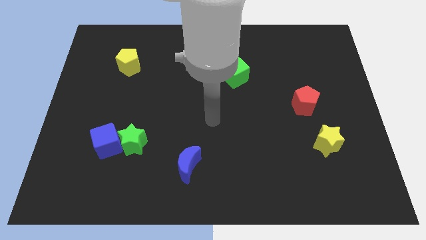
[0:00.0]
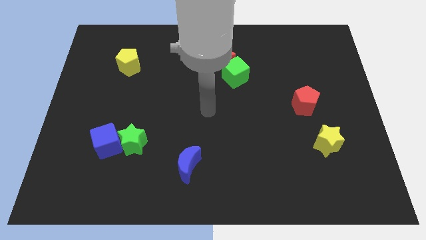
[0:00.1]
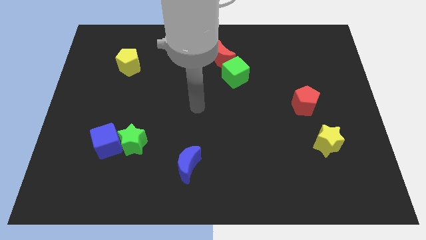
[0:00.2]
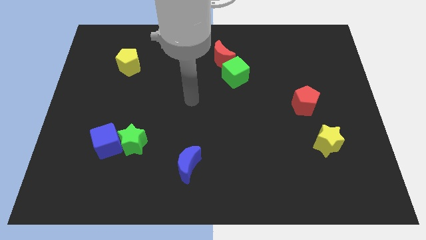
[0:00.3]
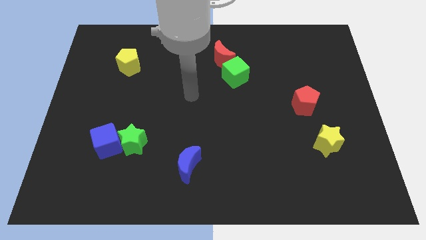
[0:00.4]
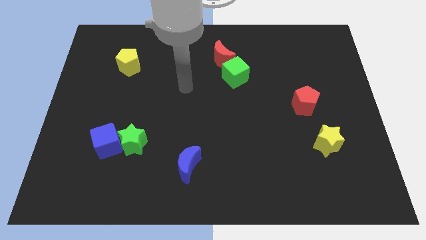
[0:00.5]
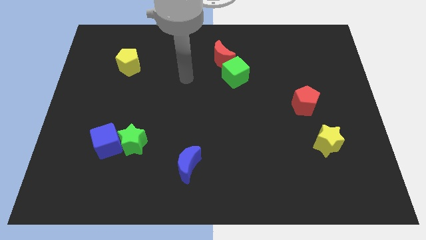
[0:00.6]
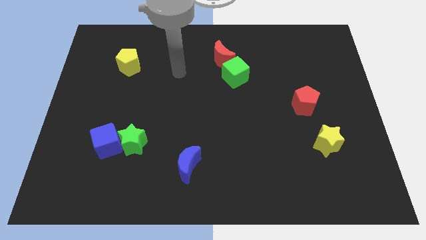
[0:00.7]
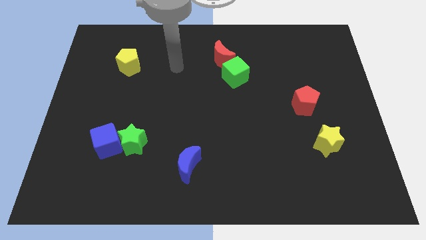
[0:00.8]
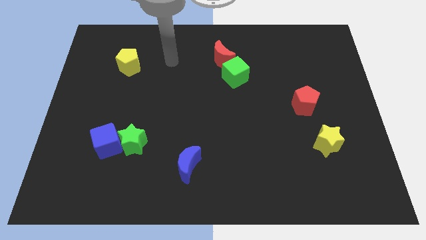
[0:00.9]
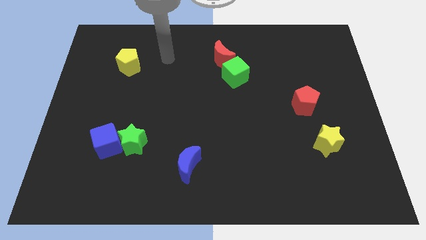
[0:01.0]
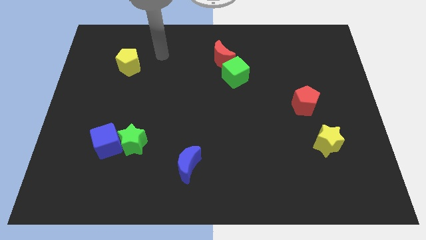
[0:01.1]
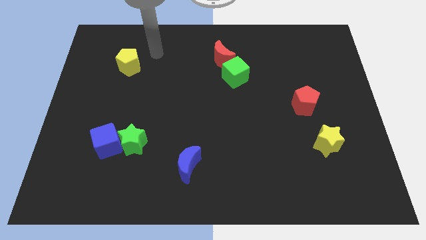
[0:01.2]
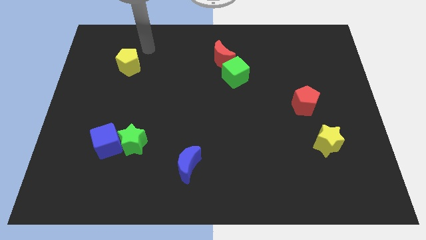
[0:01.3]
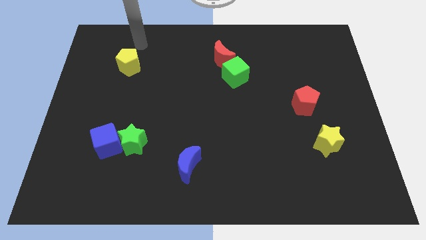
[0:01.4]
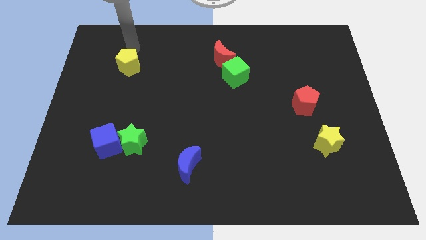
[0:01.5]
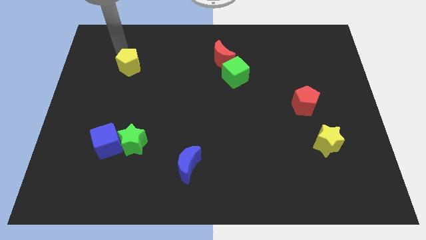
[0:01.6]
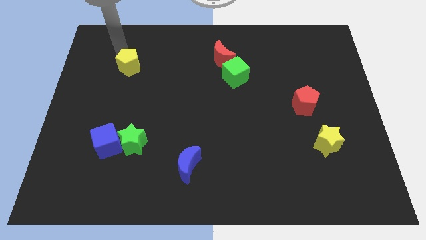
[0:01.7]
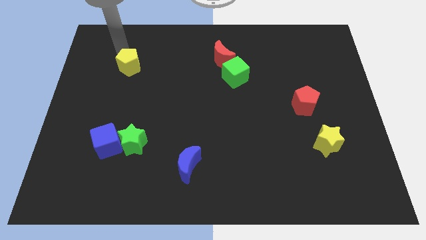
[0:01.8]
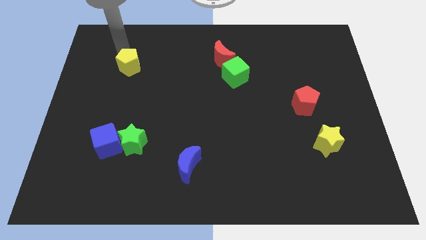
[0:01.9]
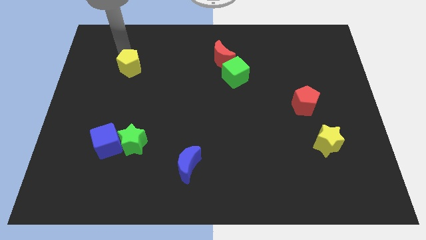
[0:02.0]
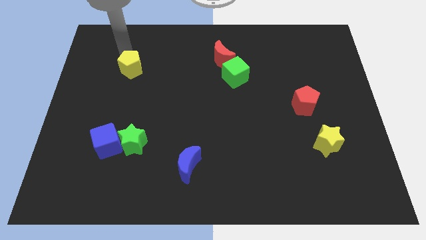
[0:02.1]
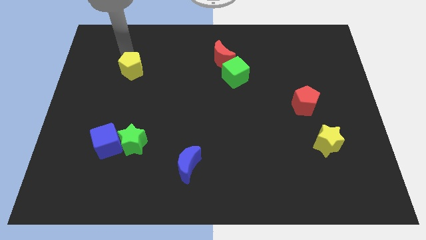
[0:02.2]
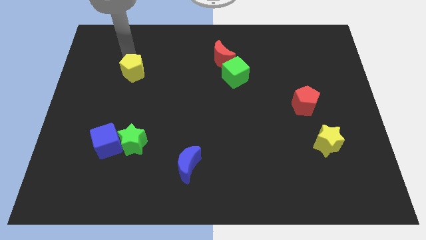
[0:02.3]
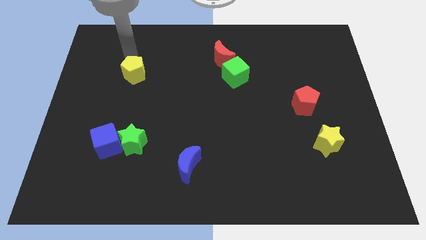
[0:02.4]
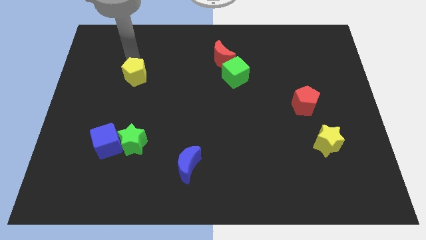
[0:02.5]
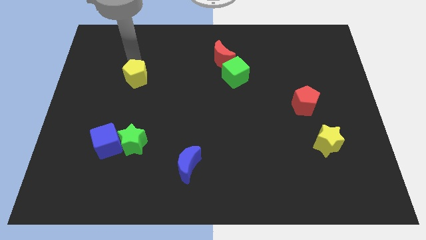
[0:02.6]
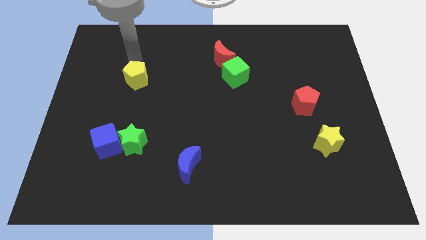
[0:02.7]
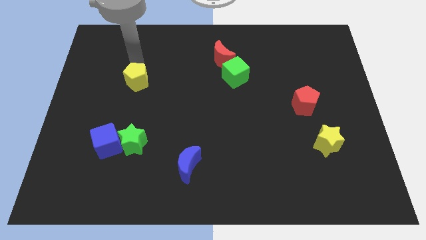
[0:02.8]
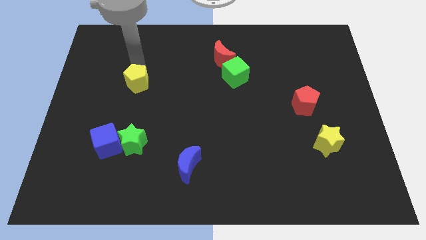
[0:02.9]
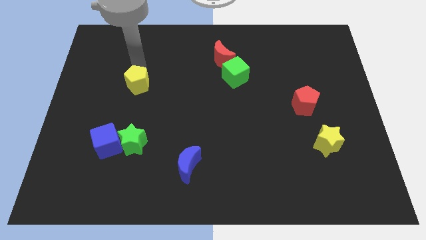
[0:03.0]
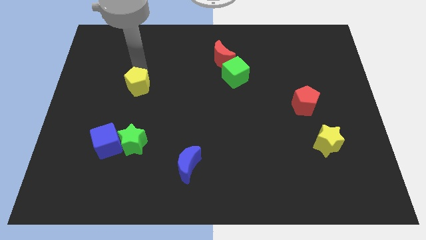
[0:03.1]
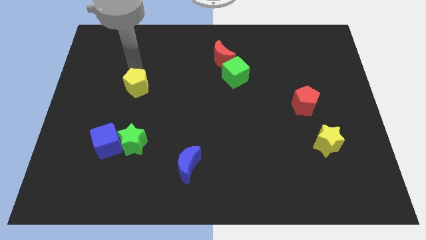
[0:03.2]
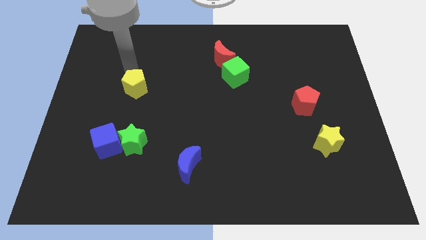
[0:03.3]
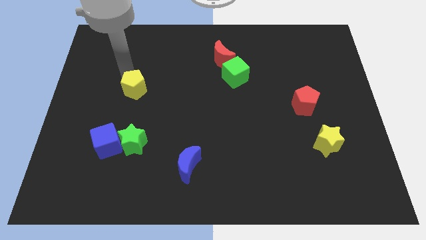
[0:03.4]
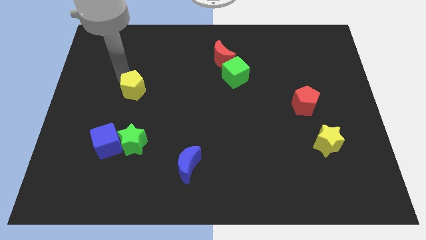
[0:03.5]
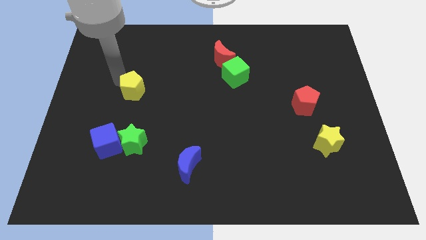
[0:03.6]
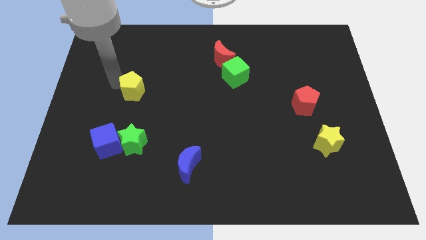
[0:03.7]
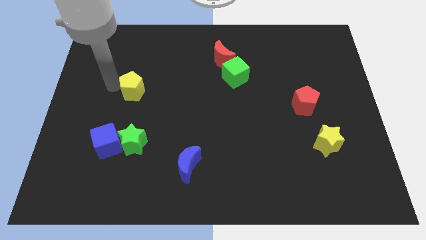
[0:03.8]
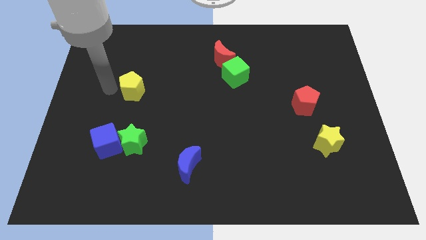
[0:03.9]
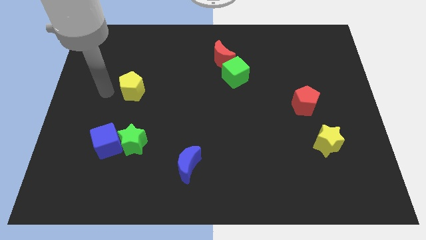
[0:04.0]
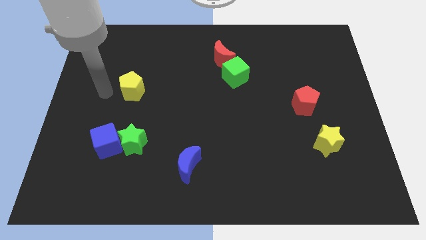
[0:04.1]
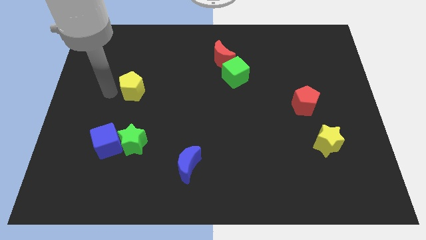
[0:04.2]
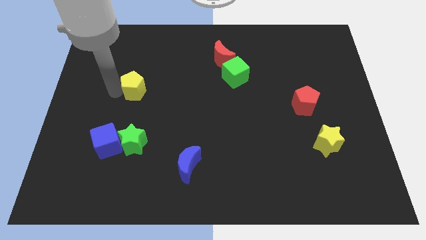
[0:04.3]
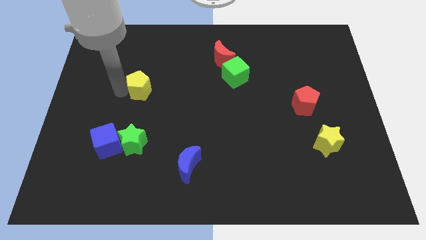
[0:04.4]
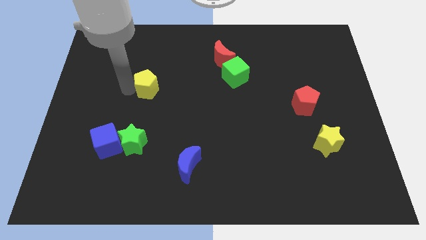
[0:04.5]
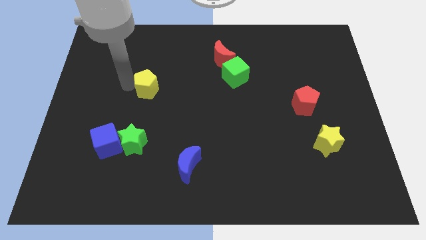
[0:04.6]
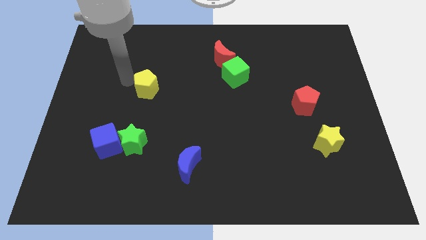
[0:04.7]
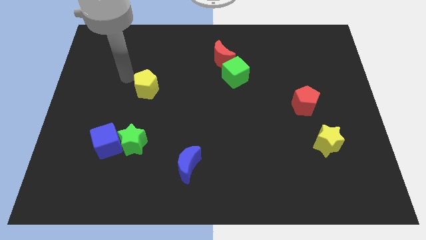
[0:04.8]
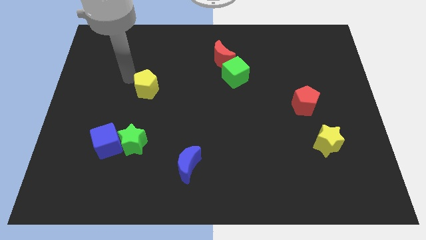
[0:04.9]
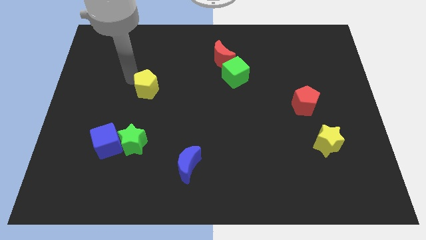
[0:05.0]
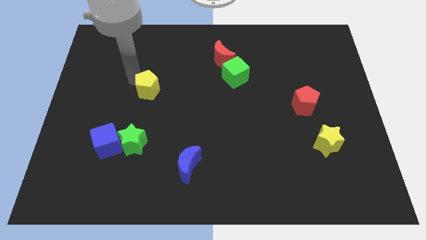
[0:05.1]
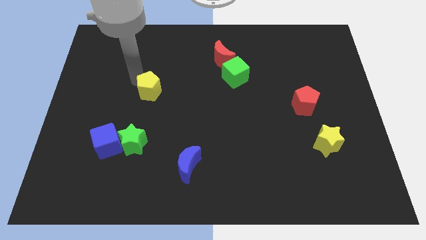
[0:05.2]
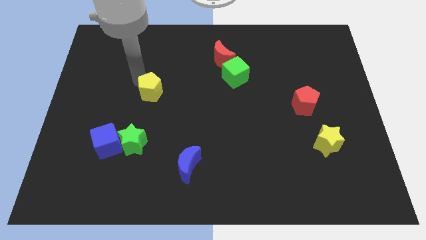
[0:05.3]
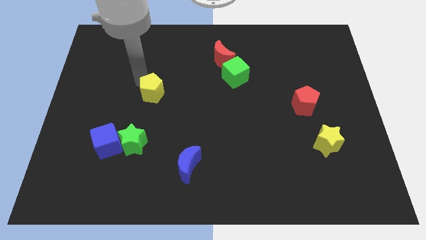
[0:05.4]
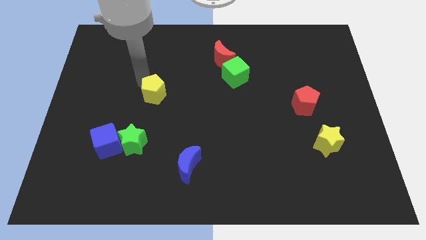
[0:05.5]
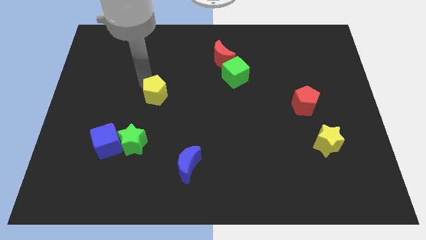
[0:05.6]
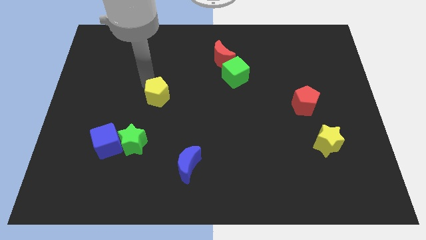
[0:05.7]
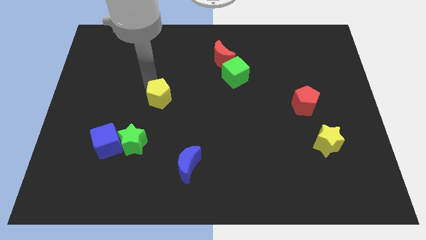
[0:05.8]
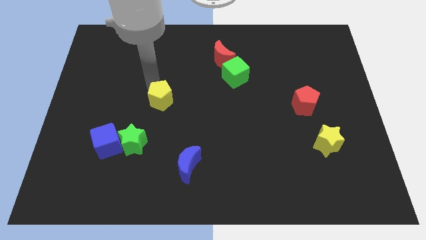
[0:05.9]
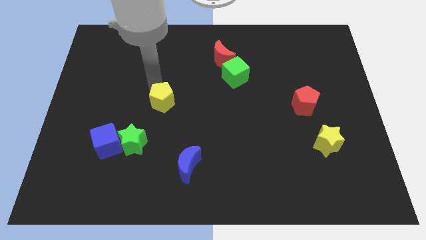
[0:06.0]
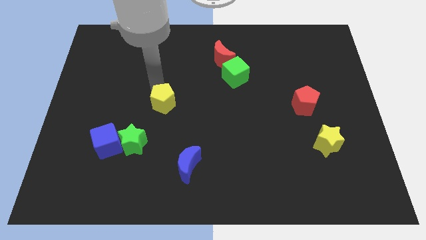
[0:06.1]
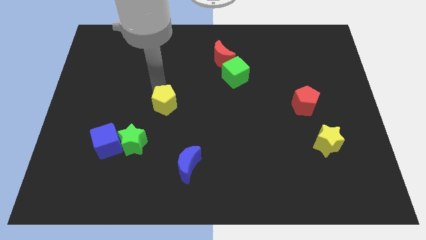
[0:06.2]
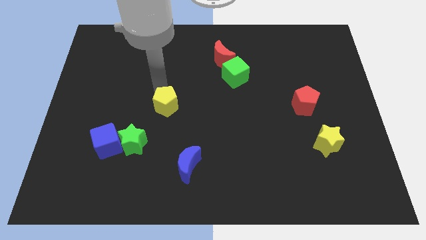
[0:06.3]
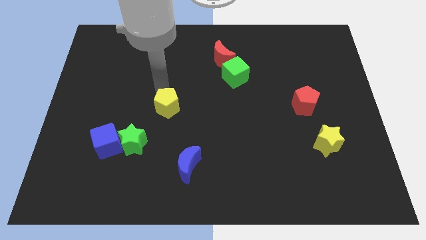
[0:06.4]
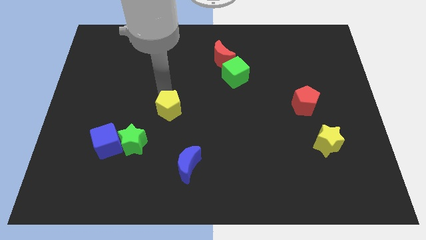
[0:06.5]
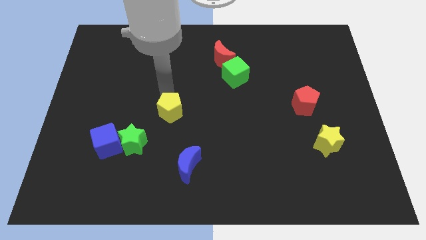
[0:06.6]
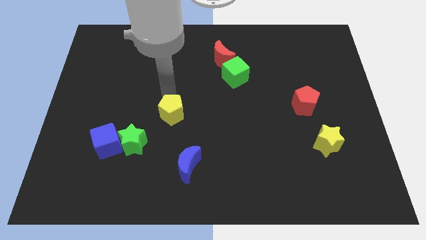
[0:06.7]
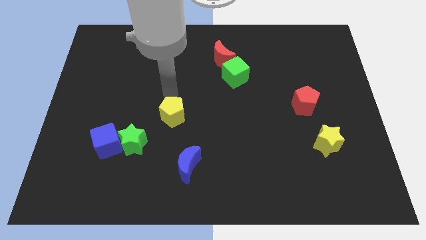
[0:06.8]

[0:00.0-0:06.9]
move the yellow pentagon down and to the right

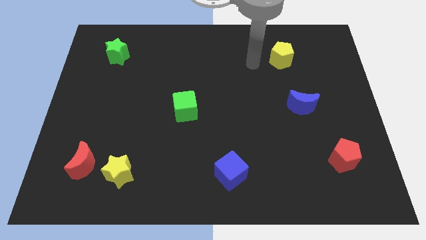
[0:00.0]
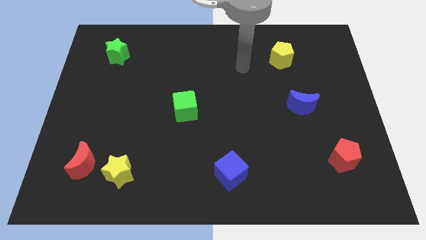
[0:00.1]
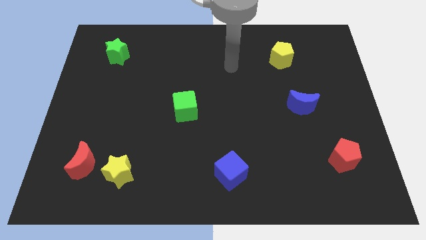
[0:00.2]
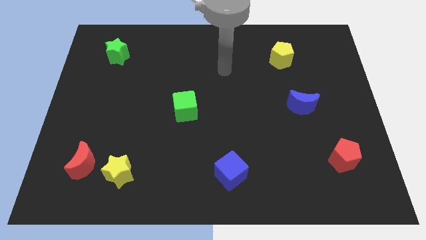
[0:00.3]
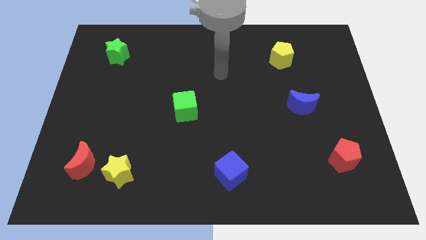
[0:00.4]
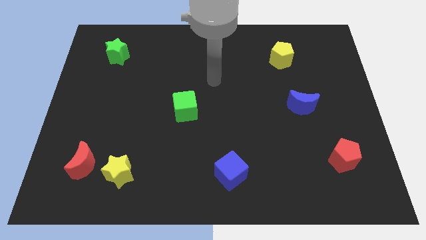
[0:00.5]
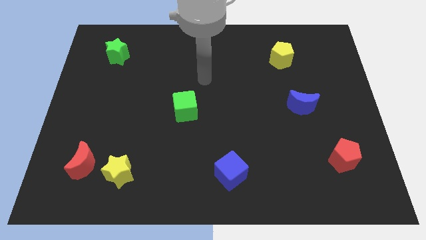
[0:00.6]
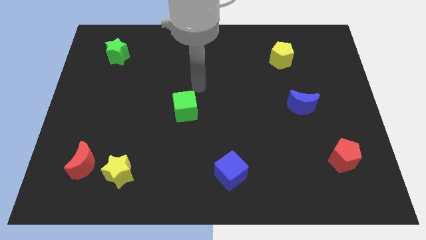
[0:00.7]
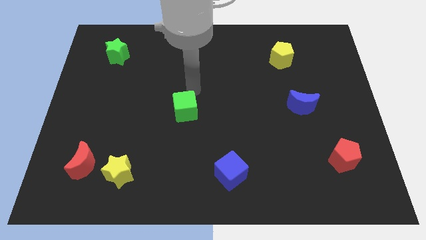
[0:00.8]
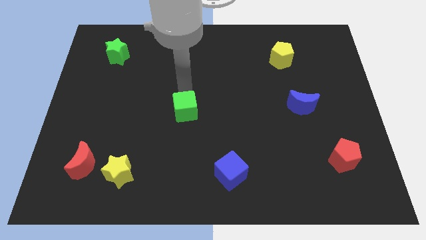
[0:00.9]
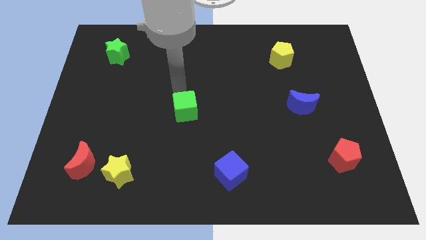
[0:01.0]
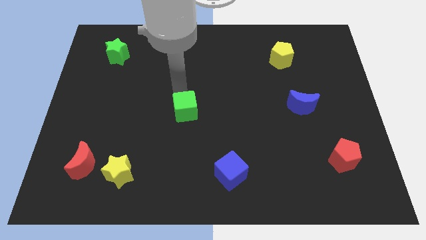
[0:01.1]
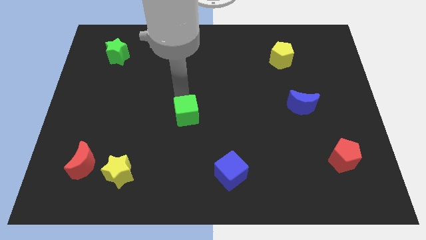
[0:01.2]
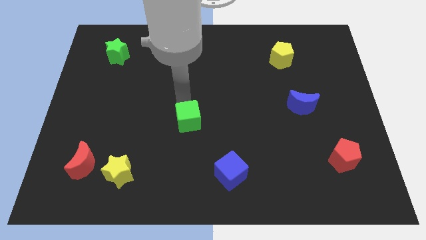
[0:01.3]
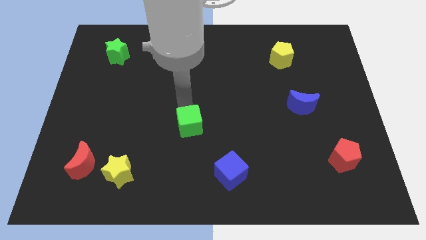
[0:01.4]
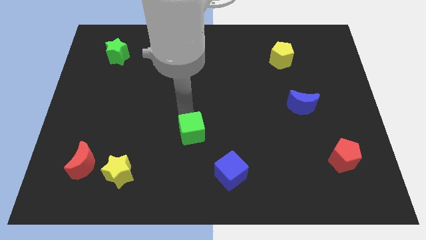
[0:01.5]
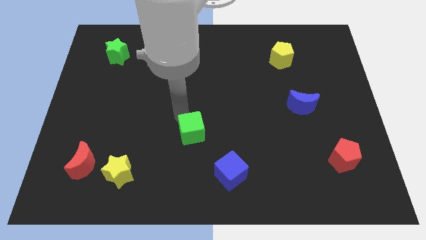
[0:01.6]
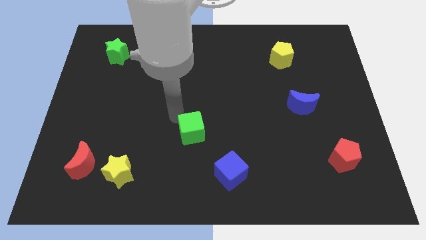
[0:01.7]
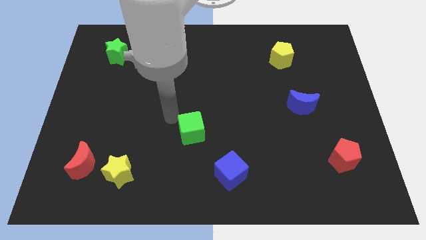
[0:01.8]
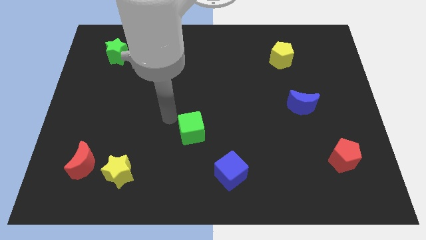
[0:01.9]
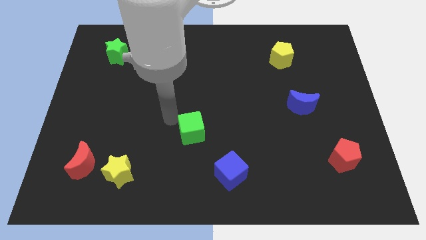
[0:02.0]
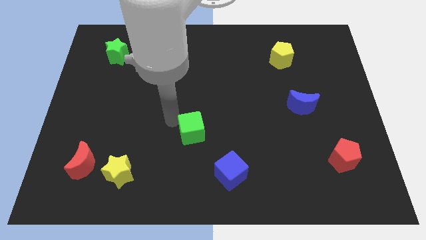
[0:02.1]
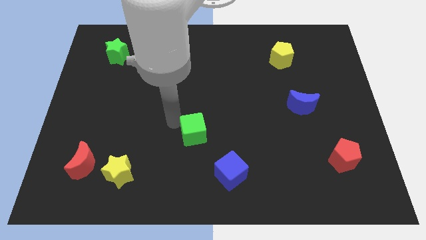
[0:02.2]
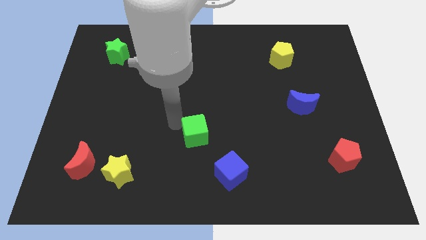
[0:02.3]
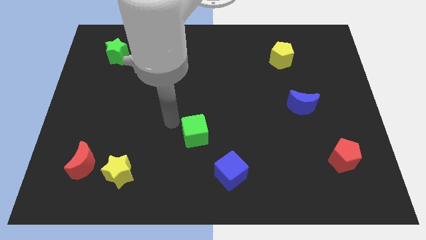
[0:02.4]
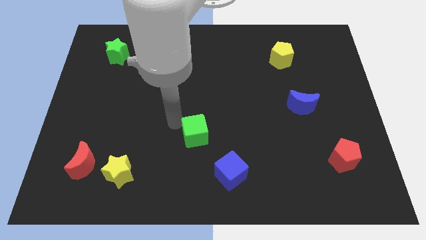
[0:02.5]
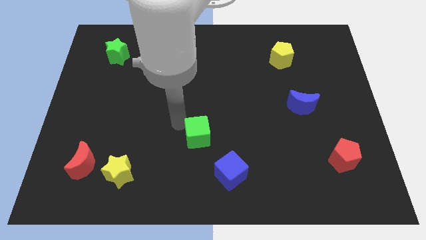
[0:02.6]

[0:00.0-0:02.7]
move the green cube a little downwards and then right
